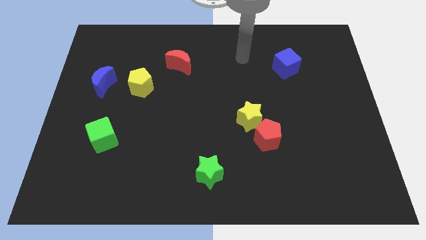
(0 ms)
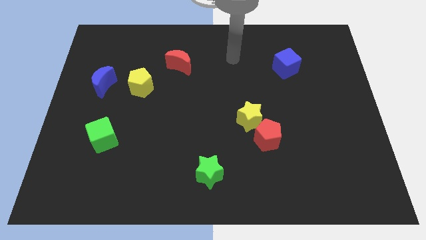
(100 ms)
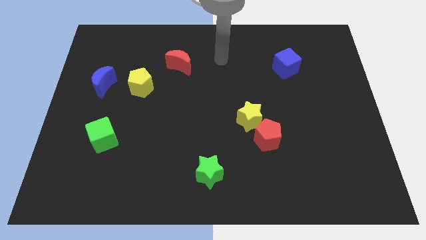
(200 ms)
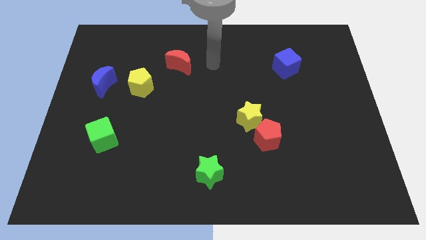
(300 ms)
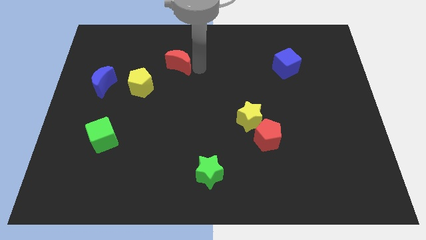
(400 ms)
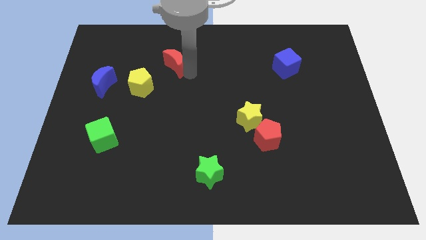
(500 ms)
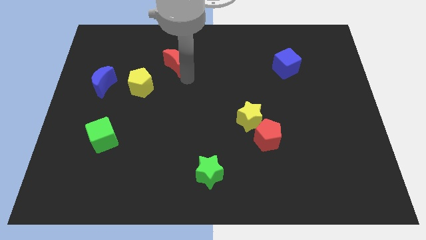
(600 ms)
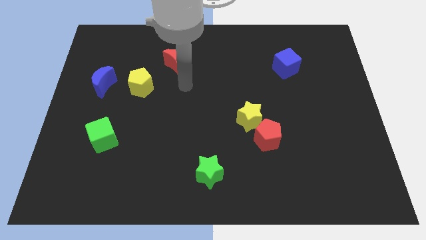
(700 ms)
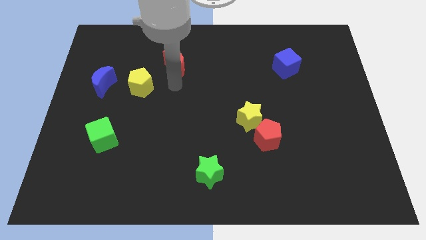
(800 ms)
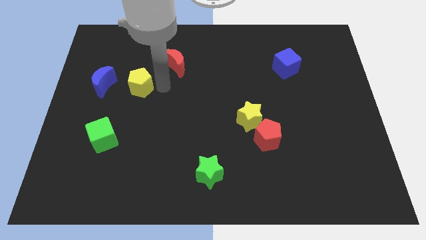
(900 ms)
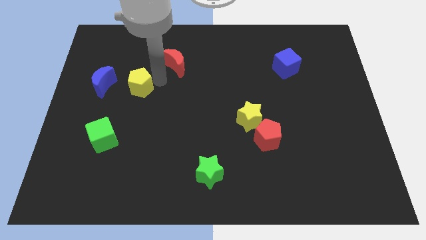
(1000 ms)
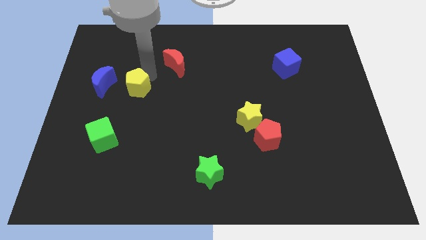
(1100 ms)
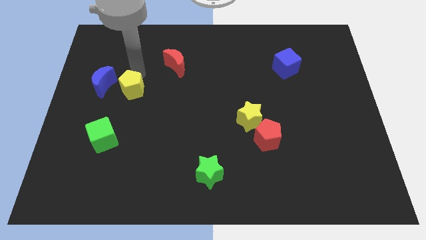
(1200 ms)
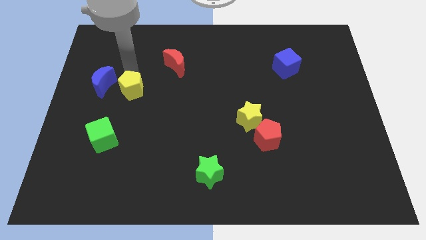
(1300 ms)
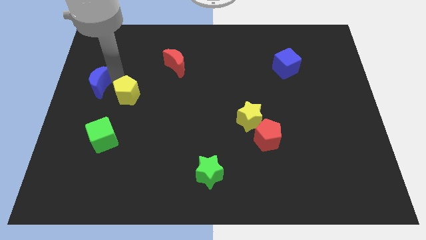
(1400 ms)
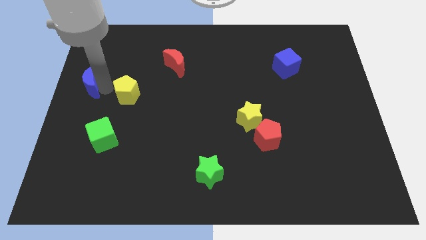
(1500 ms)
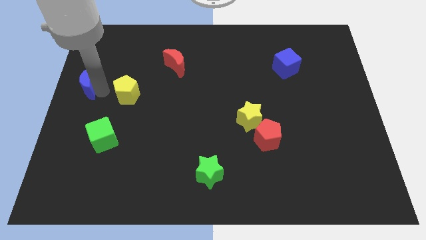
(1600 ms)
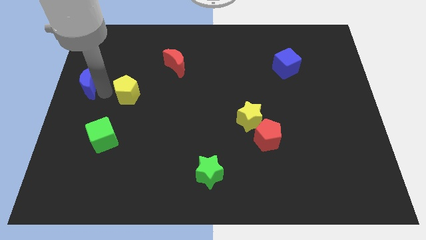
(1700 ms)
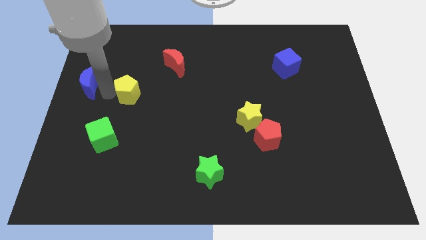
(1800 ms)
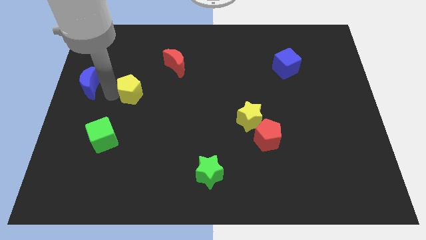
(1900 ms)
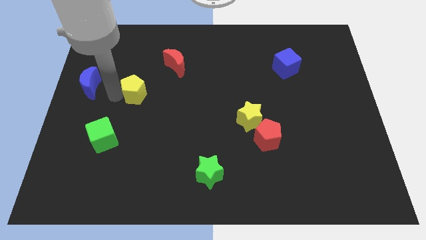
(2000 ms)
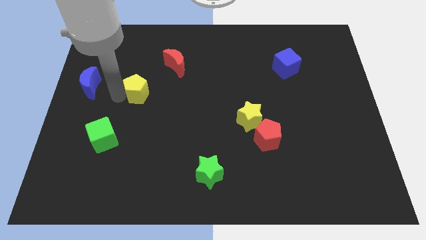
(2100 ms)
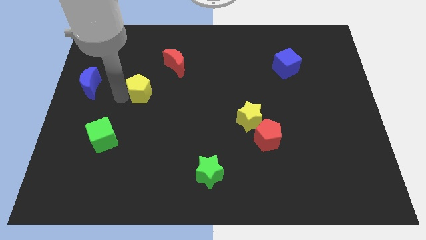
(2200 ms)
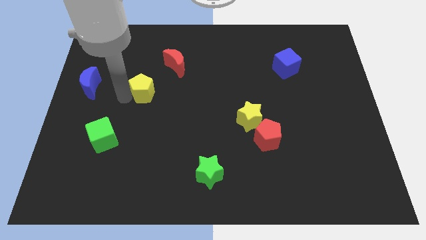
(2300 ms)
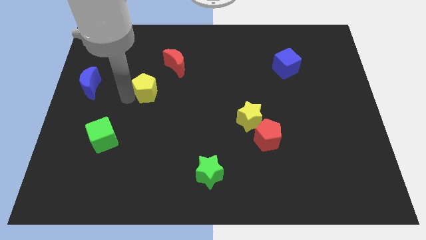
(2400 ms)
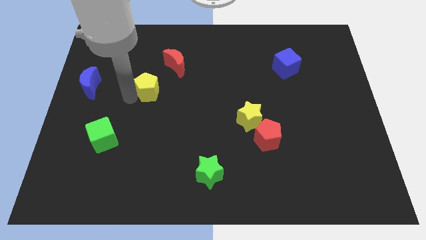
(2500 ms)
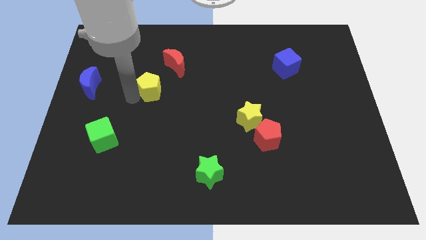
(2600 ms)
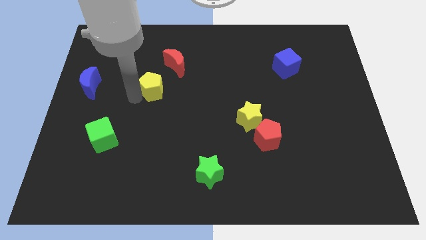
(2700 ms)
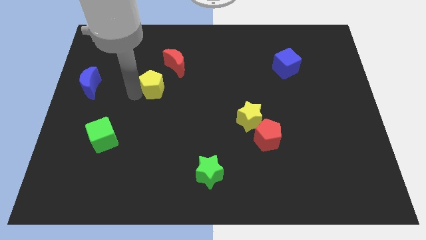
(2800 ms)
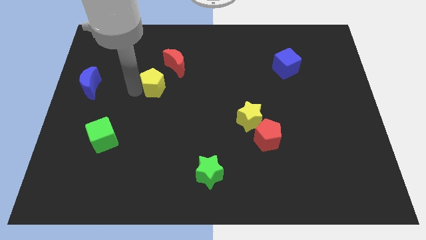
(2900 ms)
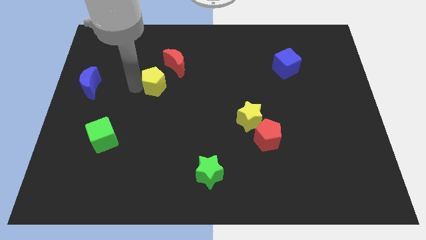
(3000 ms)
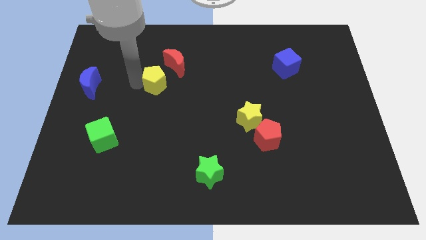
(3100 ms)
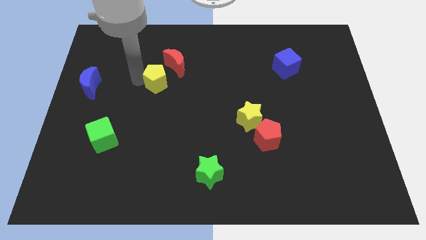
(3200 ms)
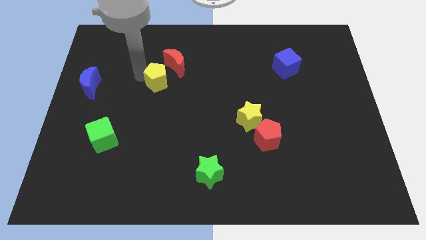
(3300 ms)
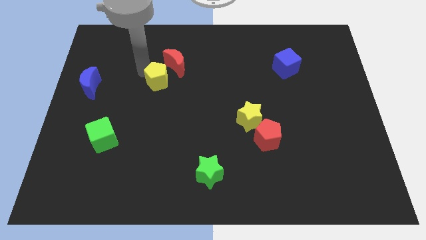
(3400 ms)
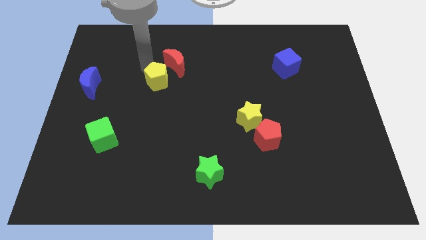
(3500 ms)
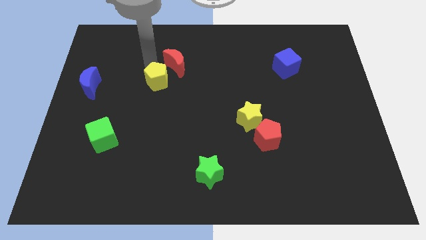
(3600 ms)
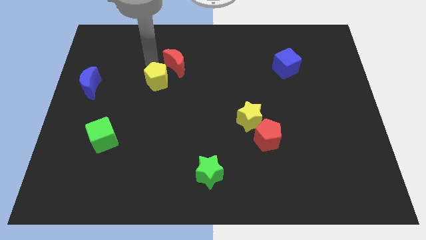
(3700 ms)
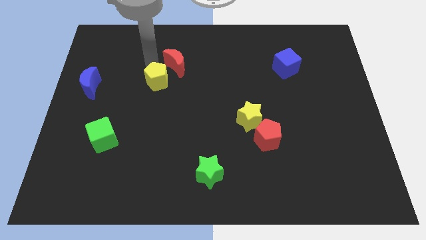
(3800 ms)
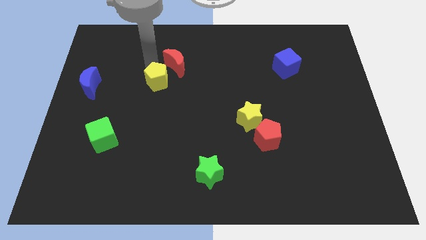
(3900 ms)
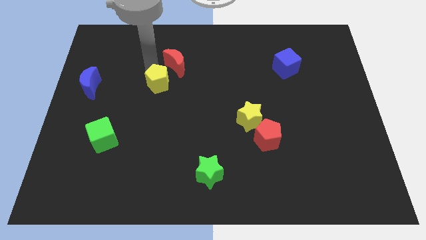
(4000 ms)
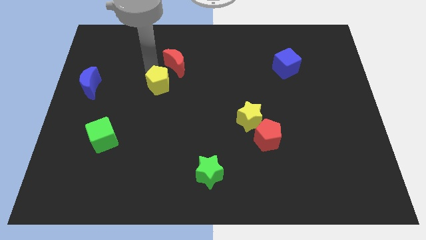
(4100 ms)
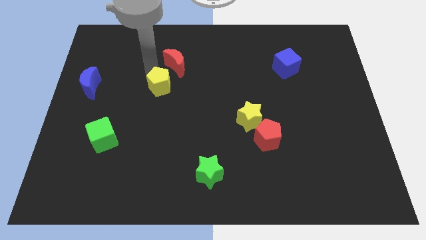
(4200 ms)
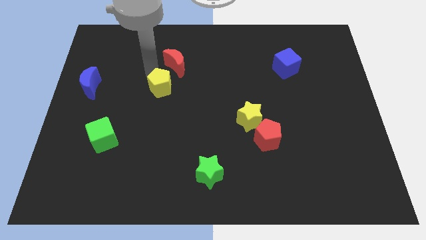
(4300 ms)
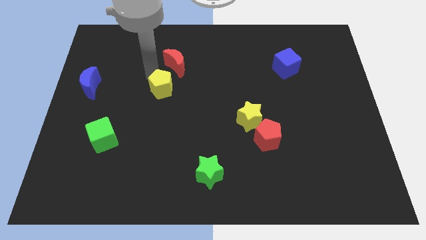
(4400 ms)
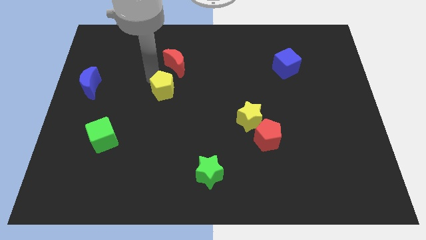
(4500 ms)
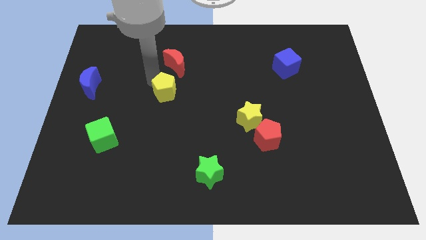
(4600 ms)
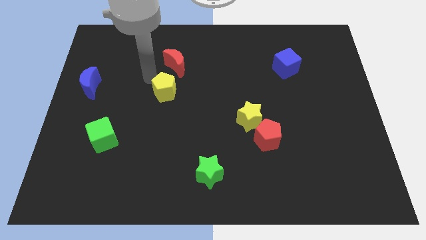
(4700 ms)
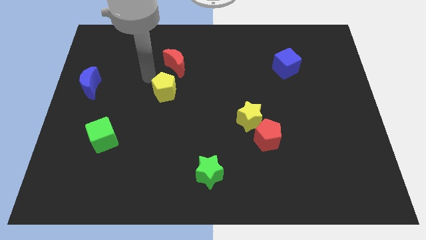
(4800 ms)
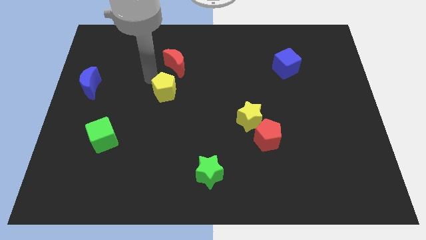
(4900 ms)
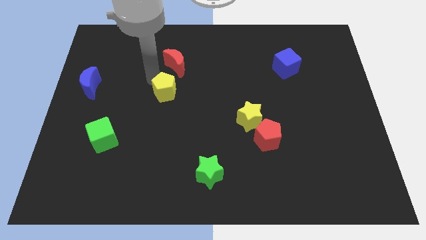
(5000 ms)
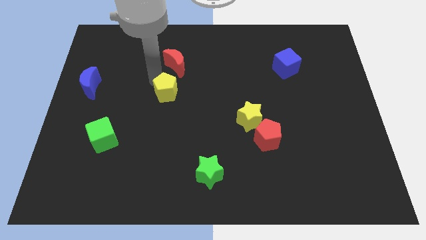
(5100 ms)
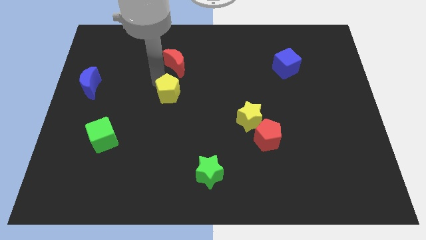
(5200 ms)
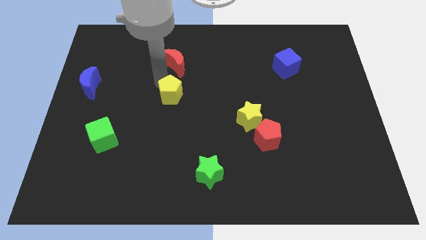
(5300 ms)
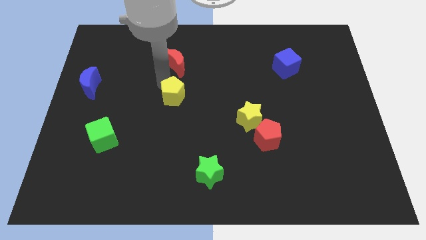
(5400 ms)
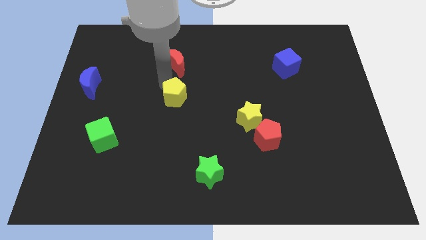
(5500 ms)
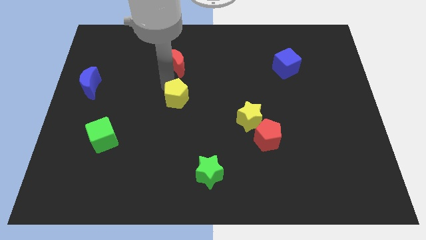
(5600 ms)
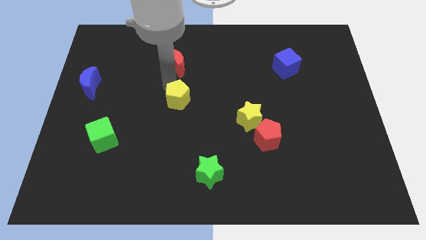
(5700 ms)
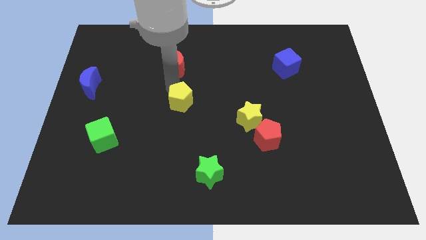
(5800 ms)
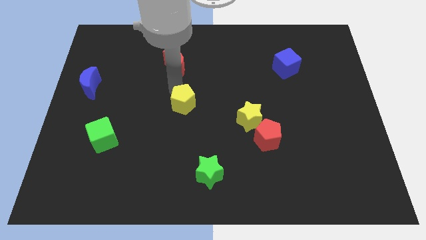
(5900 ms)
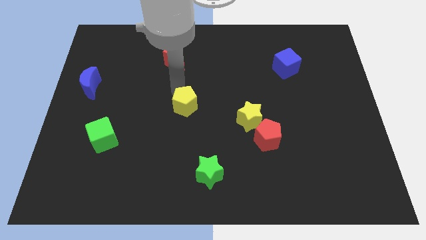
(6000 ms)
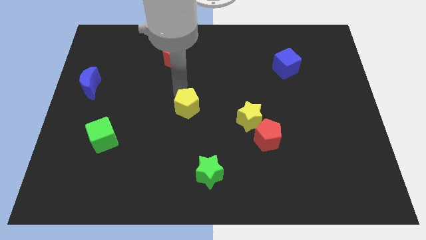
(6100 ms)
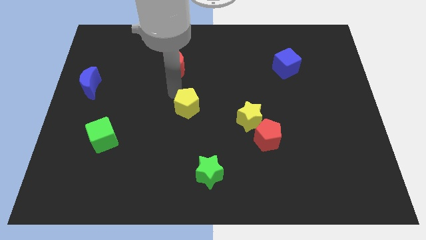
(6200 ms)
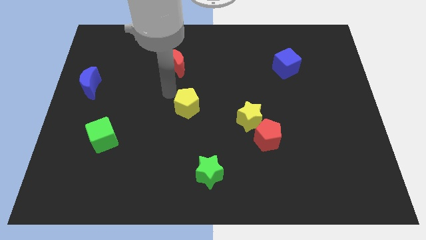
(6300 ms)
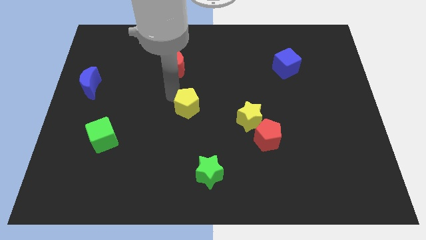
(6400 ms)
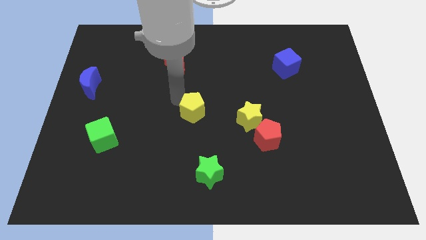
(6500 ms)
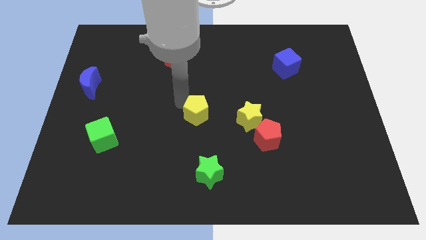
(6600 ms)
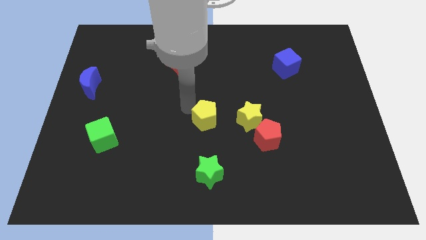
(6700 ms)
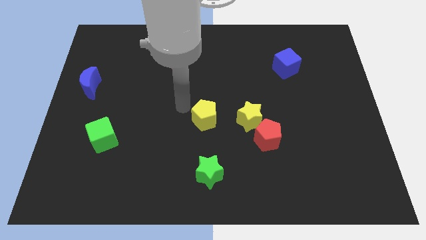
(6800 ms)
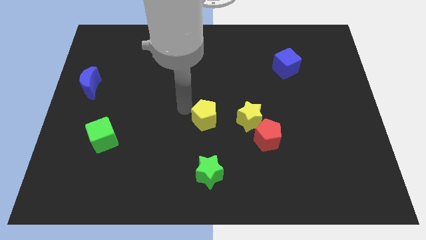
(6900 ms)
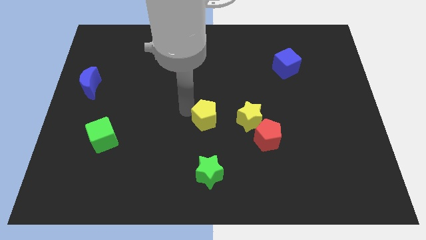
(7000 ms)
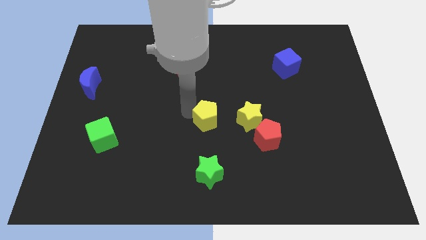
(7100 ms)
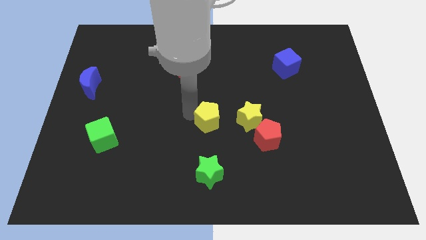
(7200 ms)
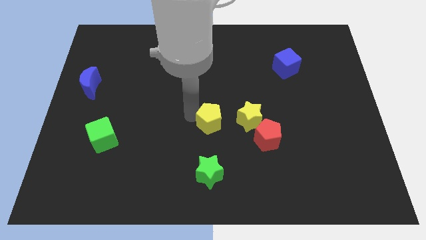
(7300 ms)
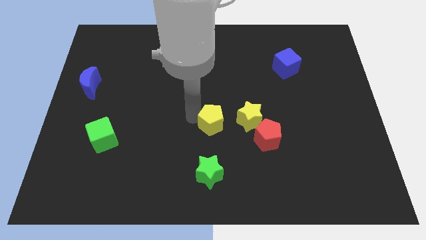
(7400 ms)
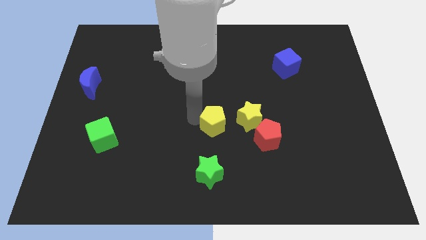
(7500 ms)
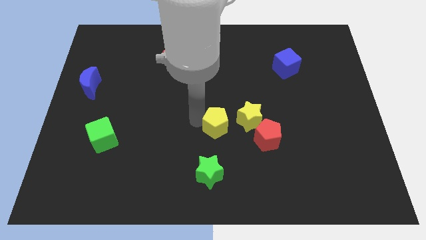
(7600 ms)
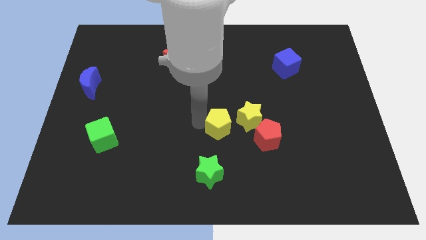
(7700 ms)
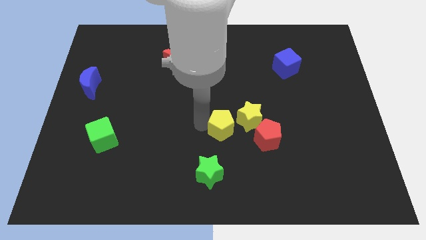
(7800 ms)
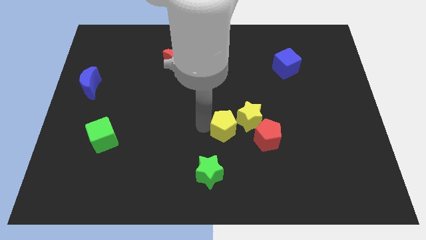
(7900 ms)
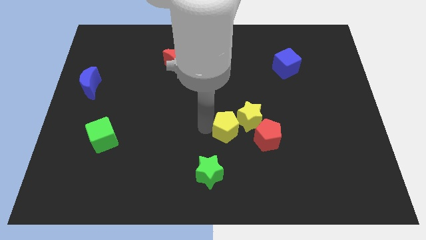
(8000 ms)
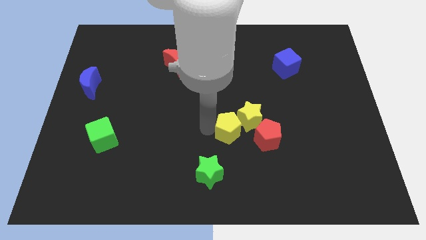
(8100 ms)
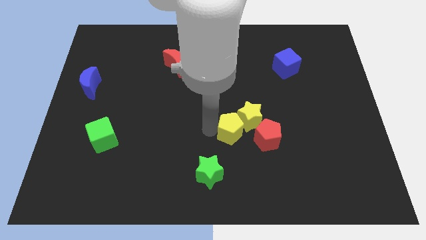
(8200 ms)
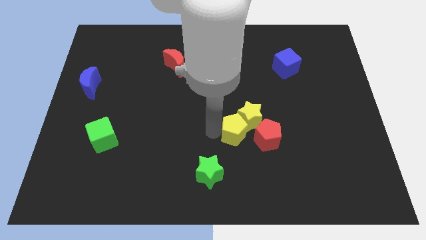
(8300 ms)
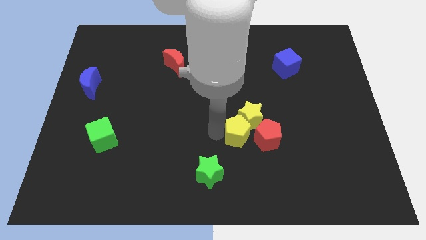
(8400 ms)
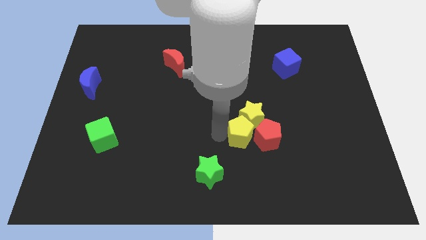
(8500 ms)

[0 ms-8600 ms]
put the yellow pentagon next to the red pentagon
